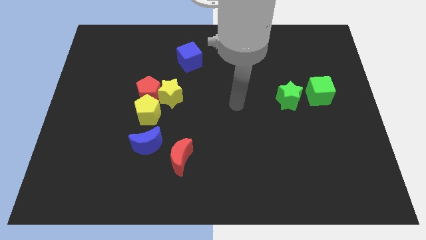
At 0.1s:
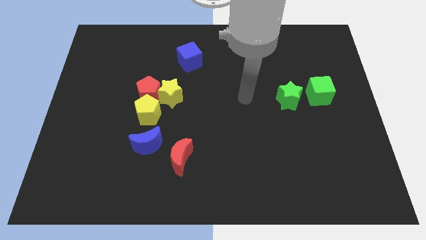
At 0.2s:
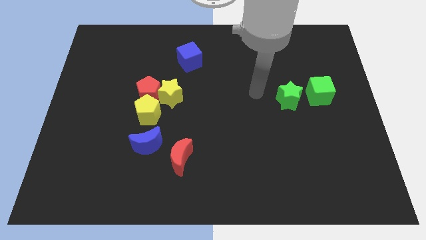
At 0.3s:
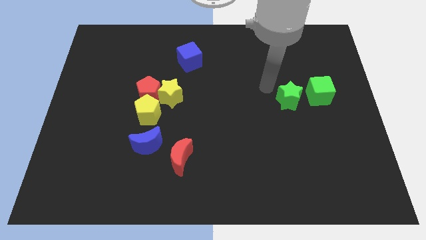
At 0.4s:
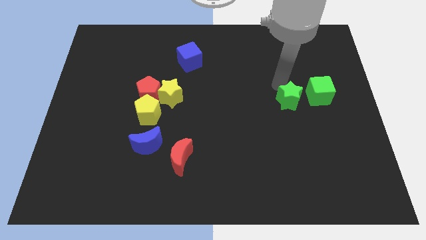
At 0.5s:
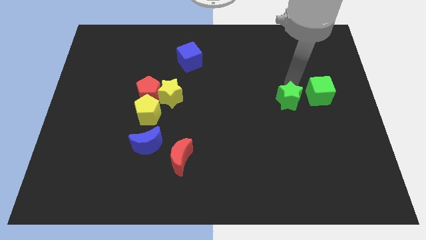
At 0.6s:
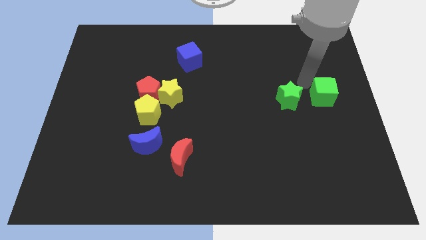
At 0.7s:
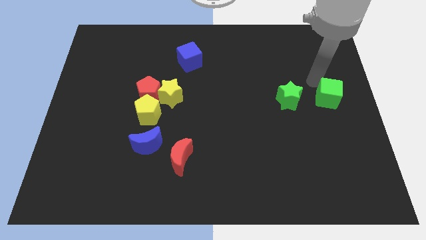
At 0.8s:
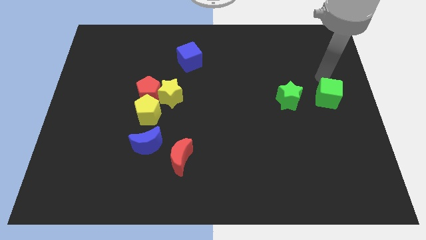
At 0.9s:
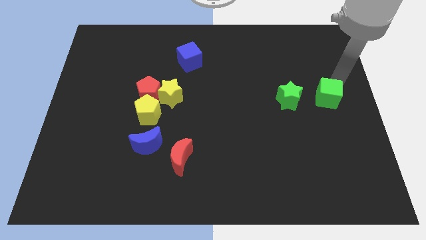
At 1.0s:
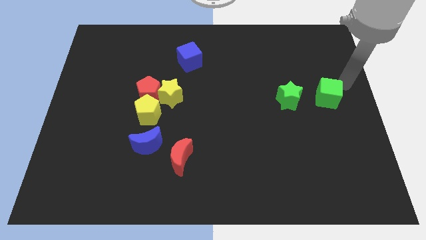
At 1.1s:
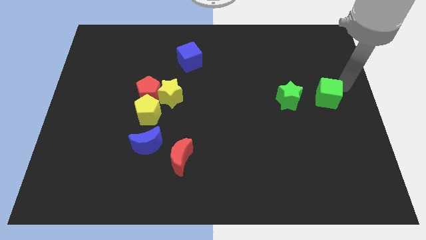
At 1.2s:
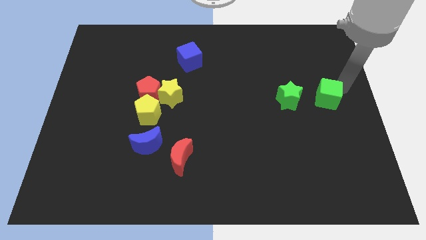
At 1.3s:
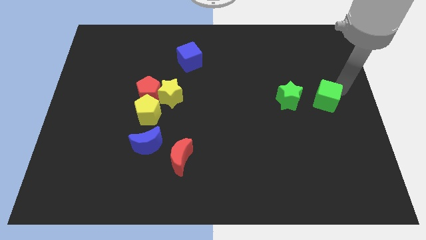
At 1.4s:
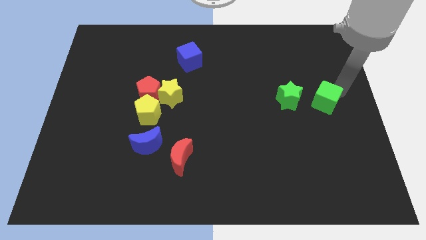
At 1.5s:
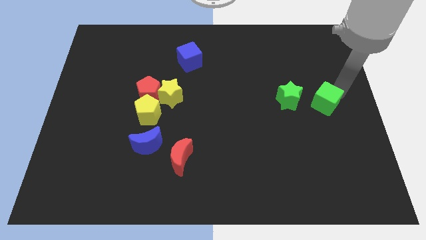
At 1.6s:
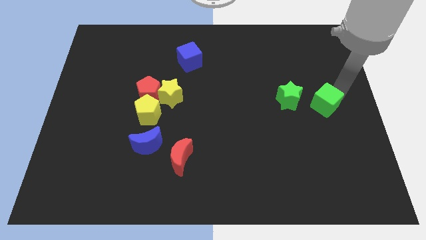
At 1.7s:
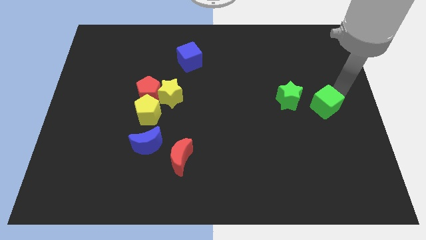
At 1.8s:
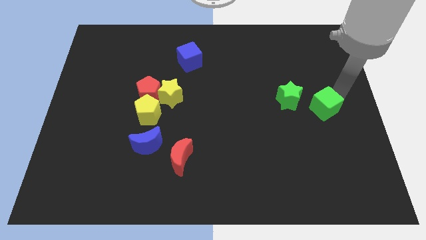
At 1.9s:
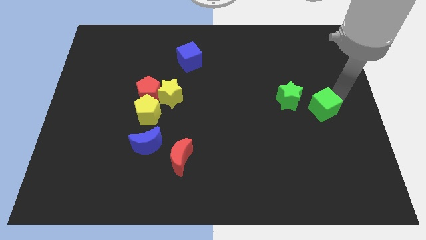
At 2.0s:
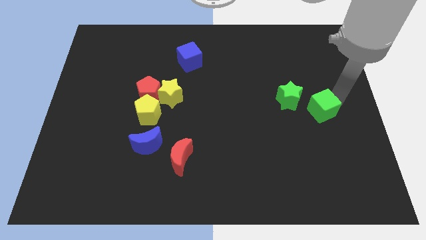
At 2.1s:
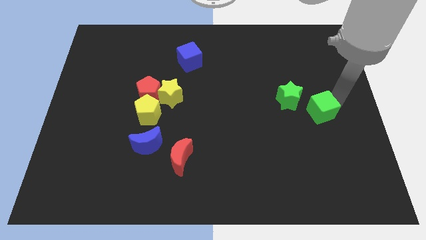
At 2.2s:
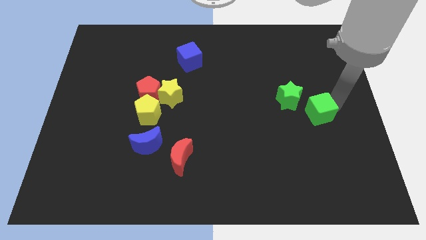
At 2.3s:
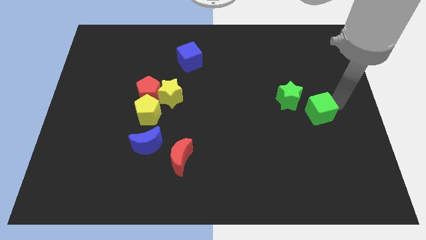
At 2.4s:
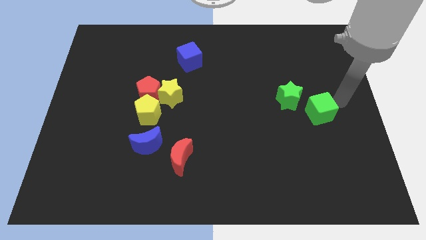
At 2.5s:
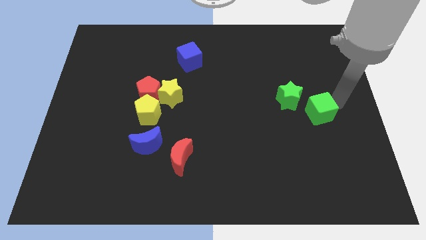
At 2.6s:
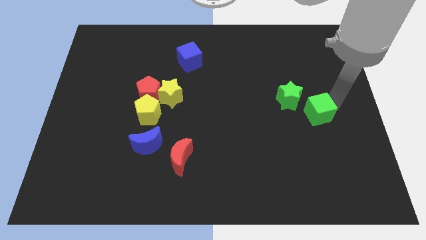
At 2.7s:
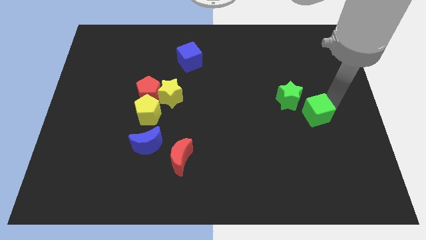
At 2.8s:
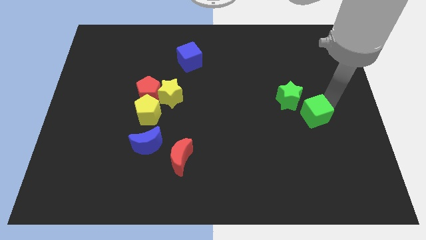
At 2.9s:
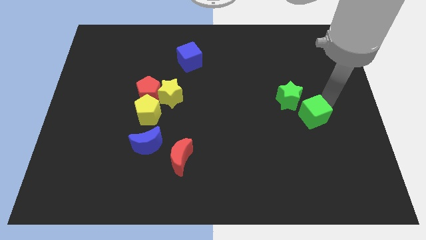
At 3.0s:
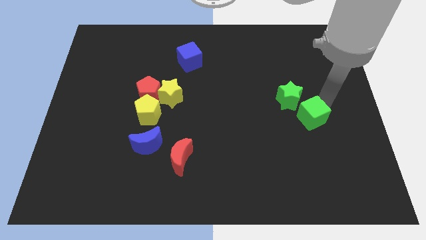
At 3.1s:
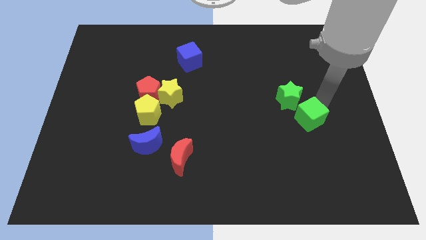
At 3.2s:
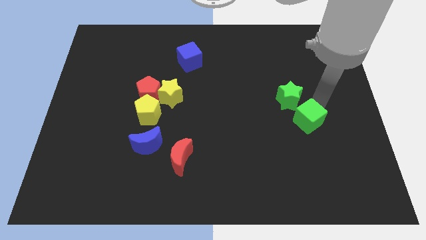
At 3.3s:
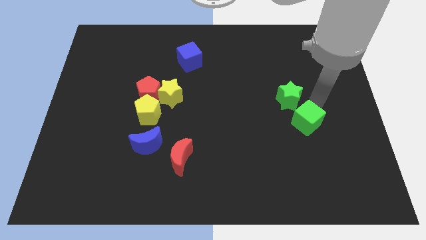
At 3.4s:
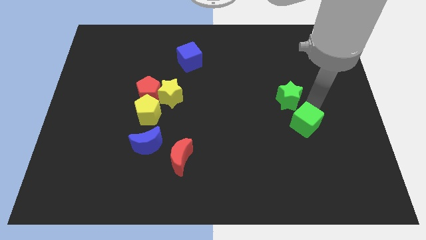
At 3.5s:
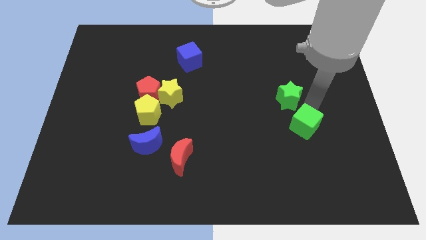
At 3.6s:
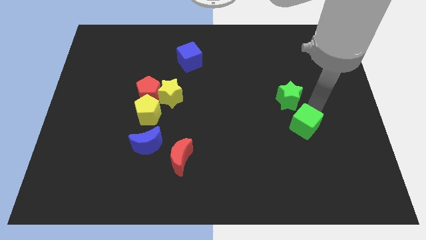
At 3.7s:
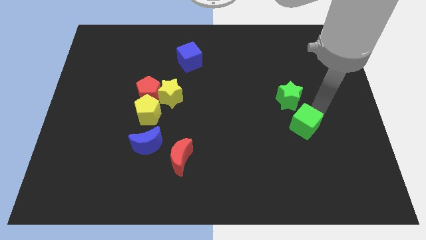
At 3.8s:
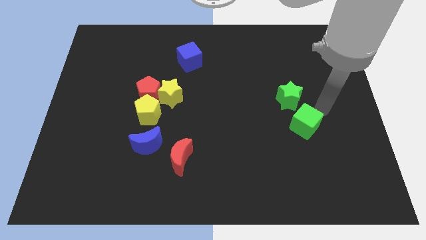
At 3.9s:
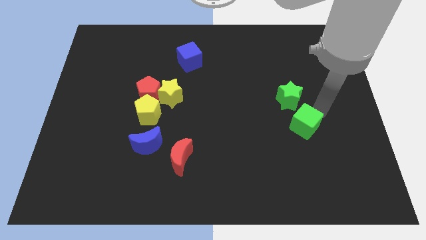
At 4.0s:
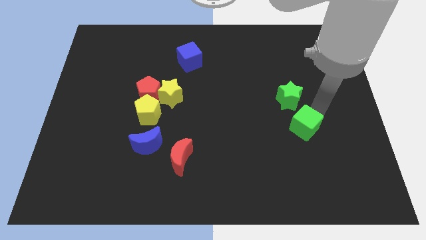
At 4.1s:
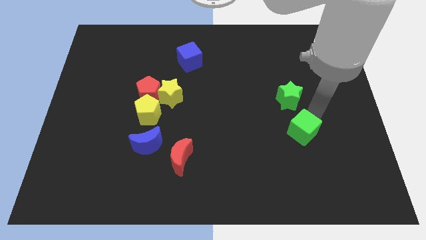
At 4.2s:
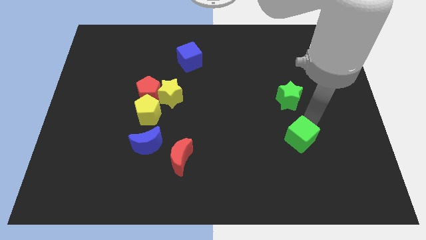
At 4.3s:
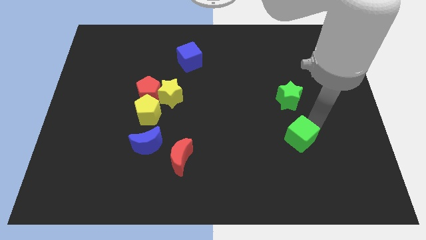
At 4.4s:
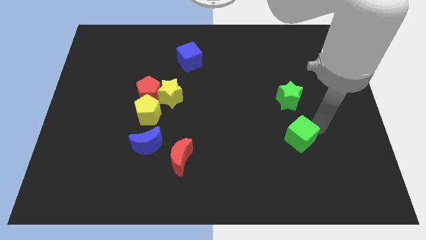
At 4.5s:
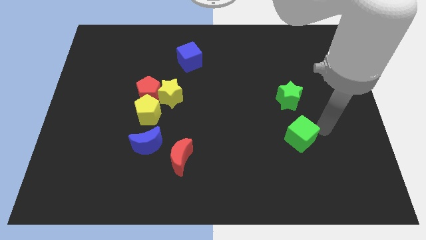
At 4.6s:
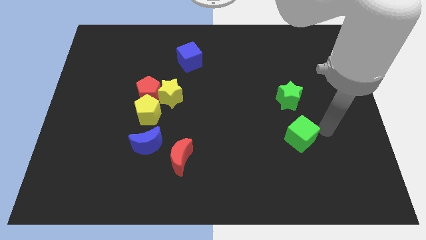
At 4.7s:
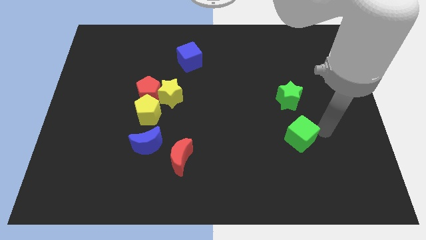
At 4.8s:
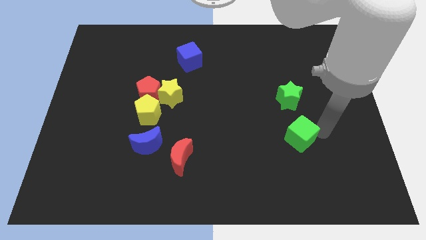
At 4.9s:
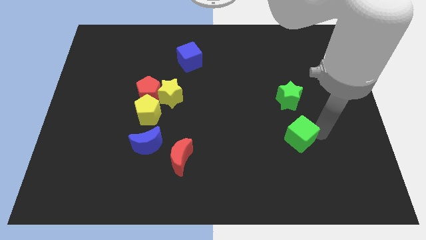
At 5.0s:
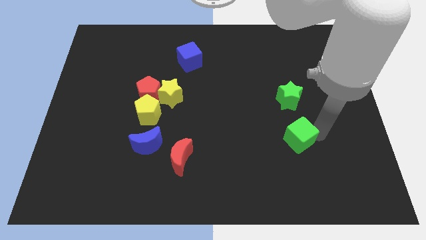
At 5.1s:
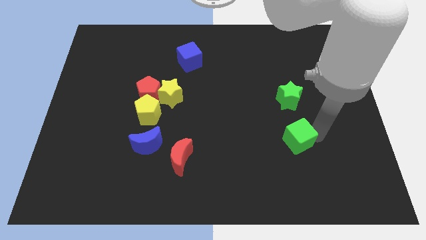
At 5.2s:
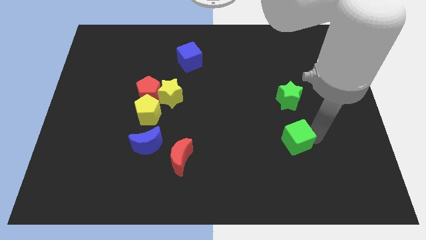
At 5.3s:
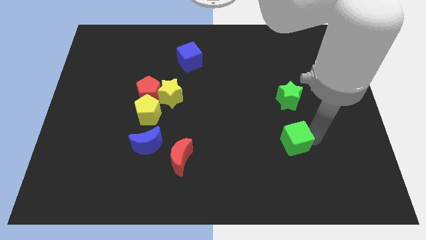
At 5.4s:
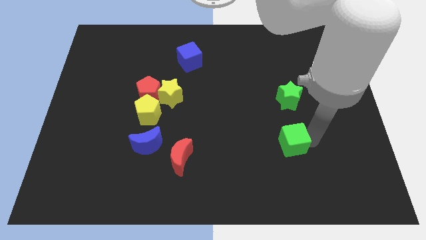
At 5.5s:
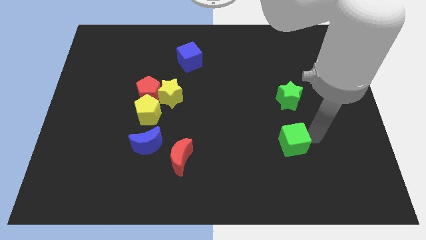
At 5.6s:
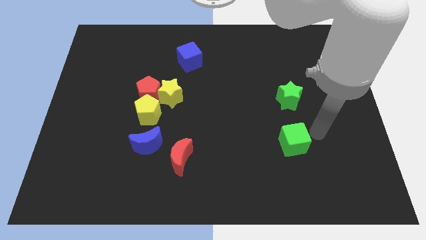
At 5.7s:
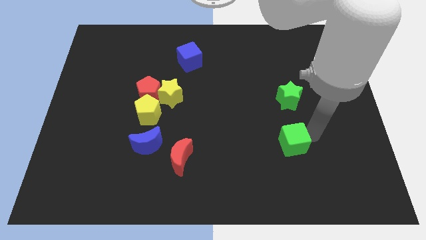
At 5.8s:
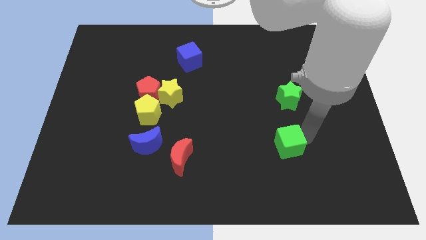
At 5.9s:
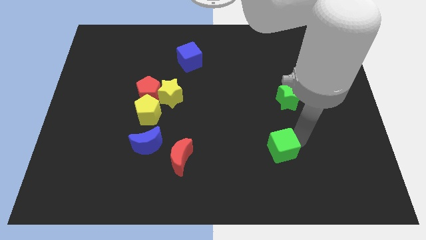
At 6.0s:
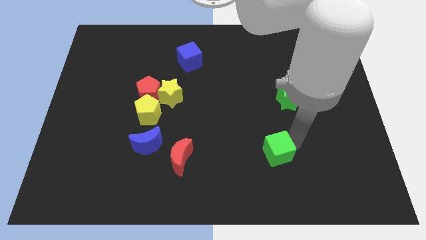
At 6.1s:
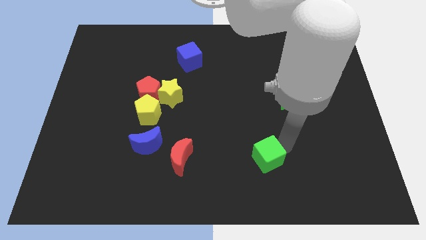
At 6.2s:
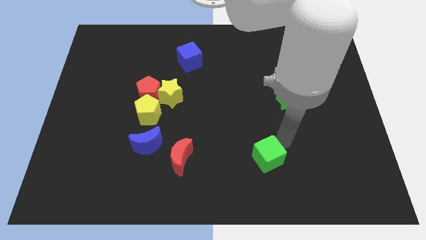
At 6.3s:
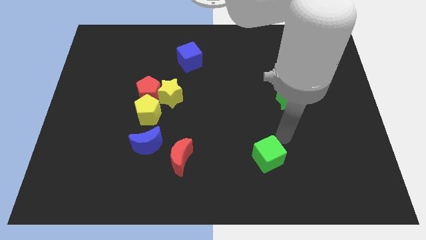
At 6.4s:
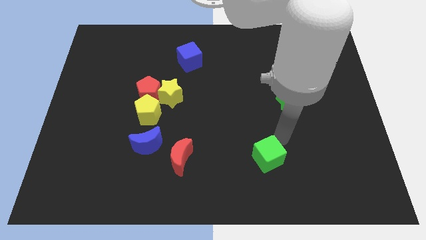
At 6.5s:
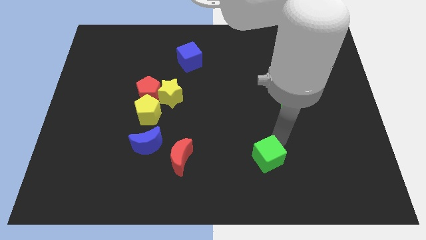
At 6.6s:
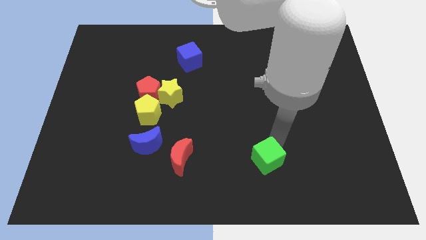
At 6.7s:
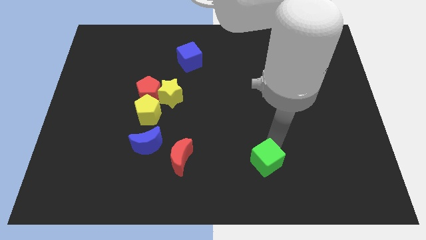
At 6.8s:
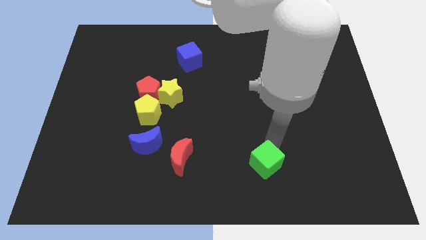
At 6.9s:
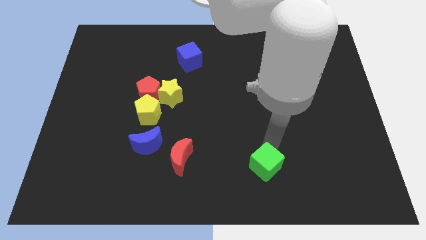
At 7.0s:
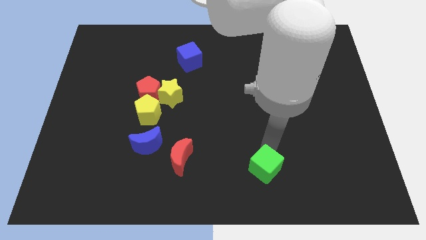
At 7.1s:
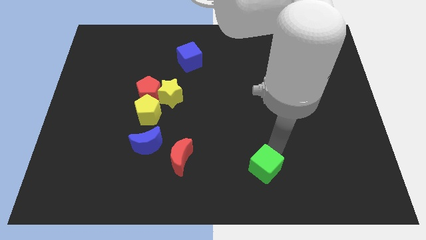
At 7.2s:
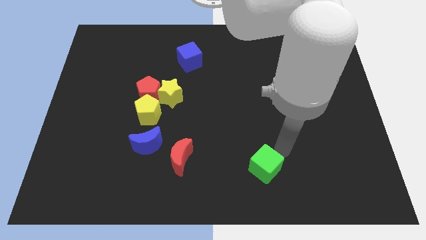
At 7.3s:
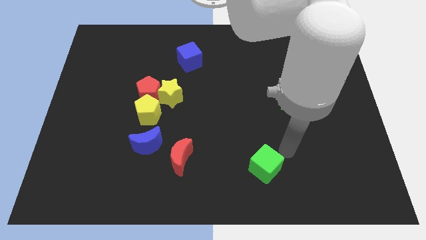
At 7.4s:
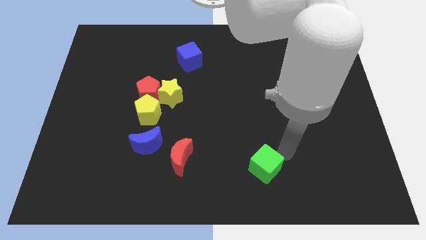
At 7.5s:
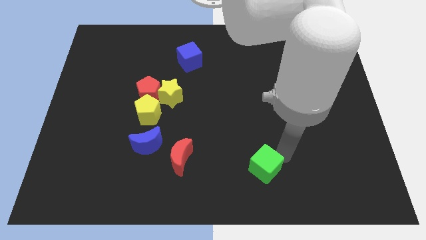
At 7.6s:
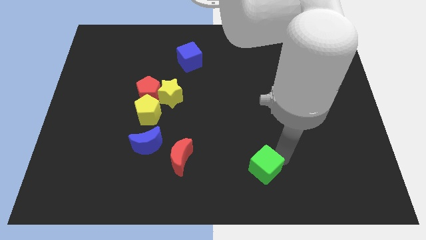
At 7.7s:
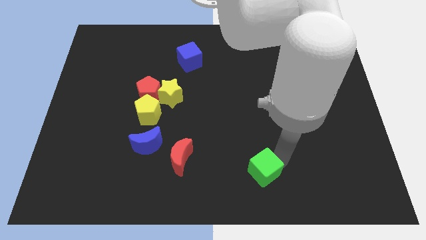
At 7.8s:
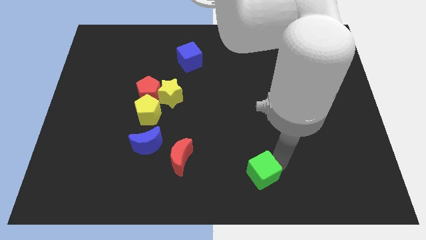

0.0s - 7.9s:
push the green cube to the bottom side
